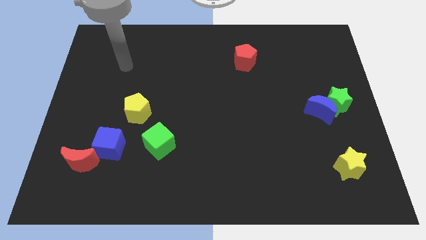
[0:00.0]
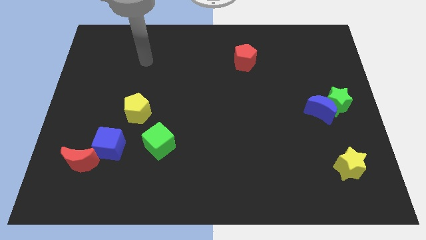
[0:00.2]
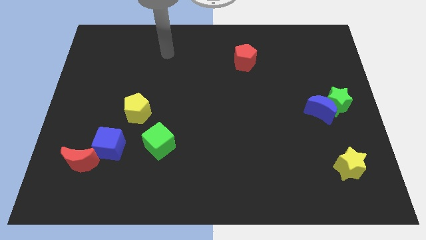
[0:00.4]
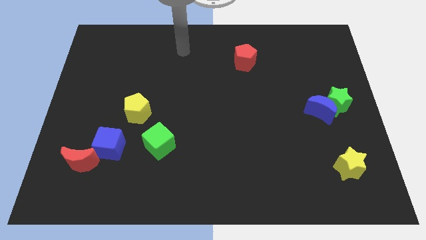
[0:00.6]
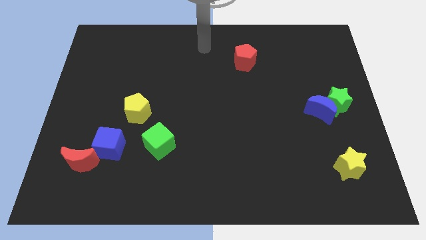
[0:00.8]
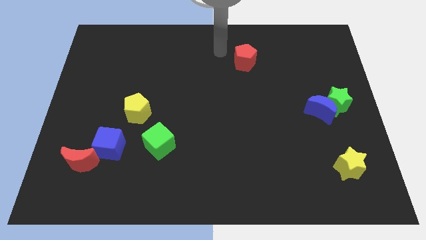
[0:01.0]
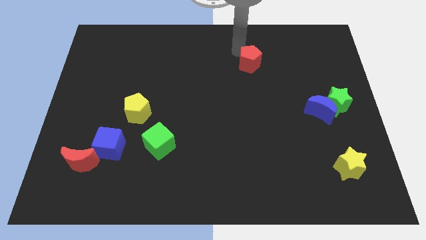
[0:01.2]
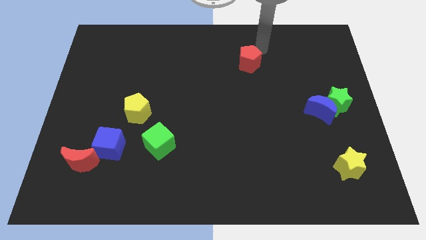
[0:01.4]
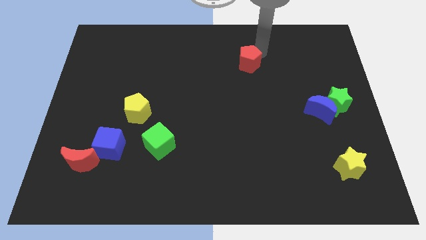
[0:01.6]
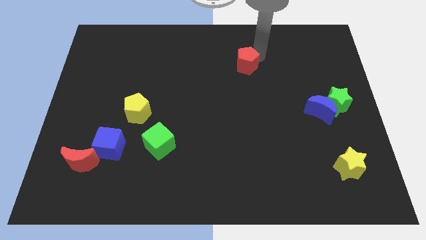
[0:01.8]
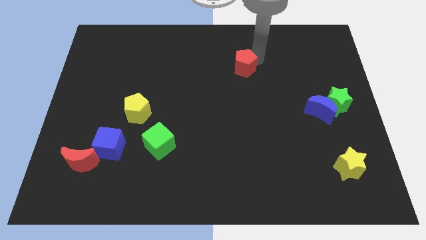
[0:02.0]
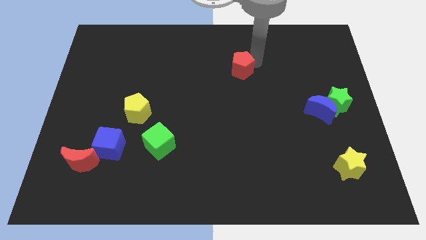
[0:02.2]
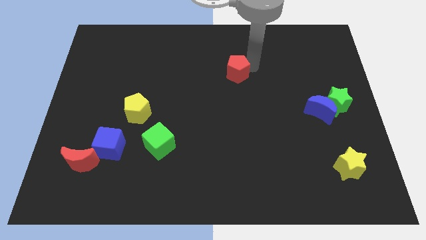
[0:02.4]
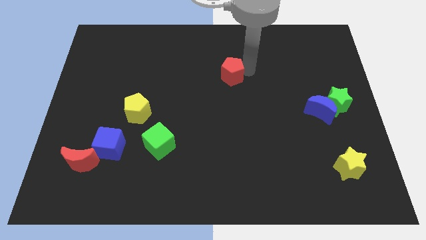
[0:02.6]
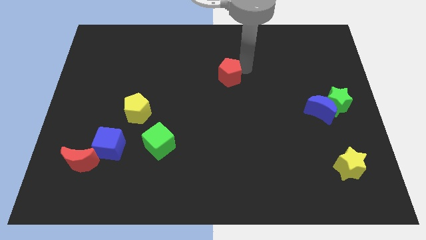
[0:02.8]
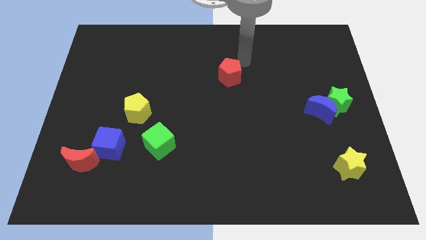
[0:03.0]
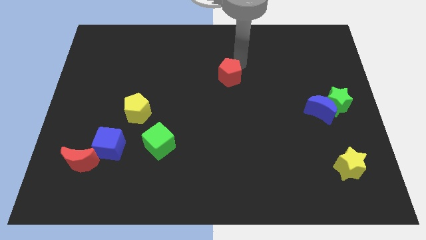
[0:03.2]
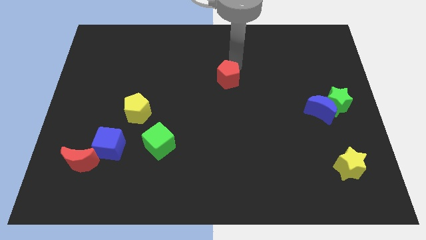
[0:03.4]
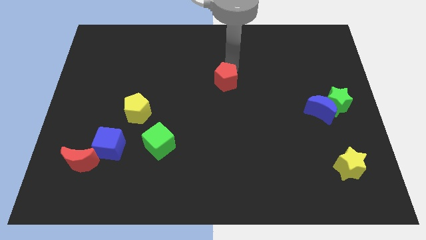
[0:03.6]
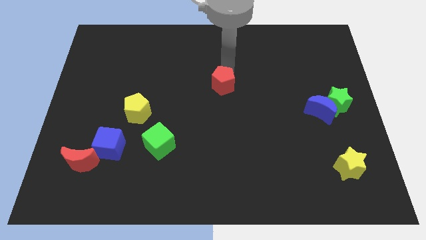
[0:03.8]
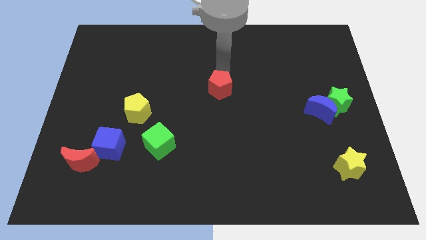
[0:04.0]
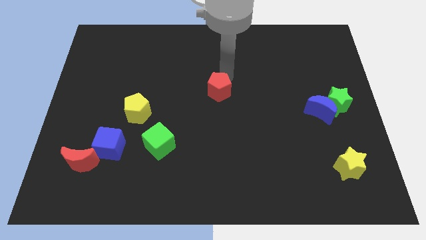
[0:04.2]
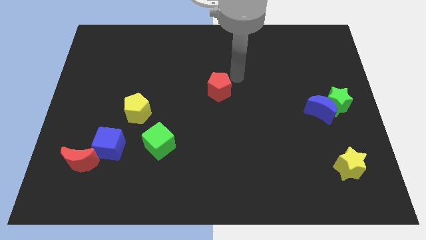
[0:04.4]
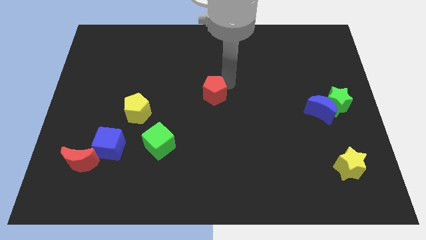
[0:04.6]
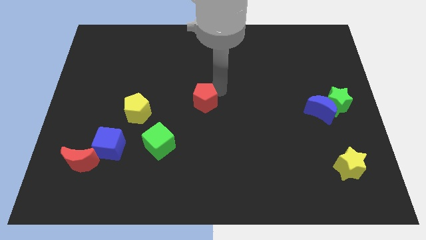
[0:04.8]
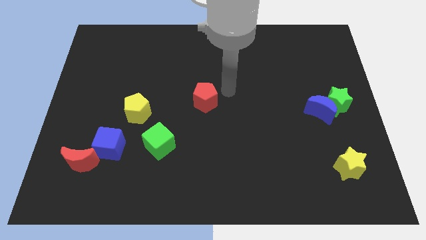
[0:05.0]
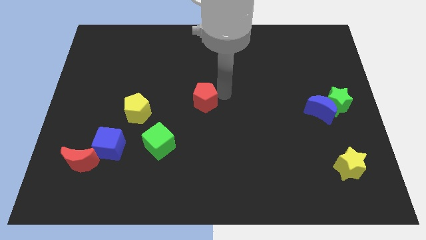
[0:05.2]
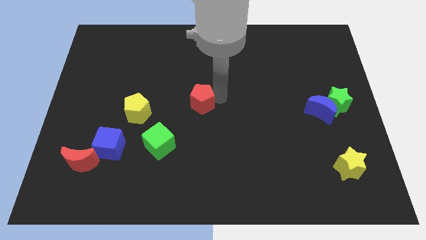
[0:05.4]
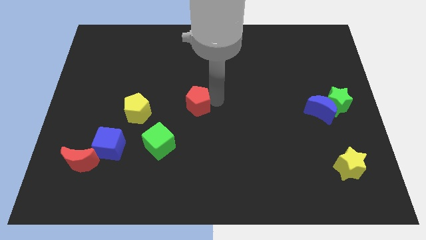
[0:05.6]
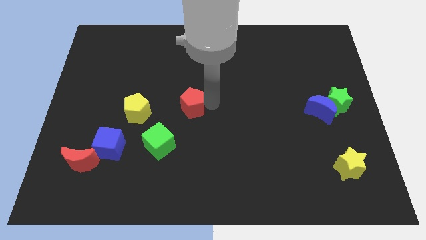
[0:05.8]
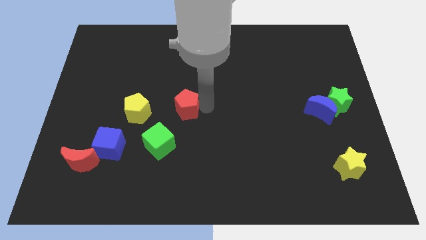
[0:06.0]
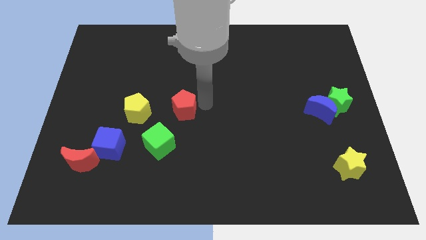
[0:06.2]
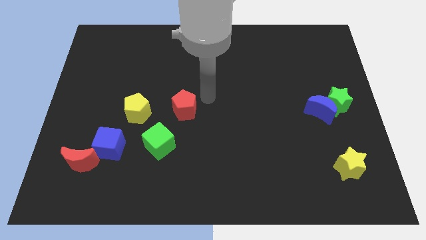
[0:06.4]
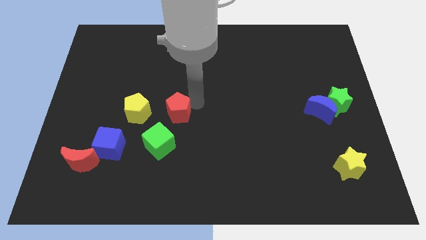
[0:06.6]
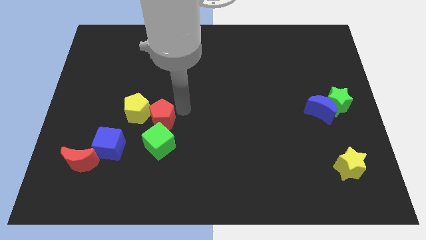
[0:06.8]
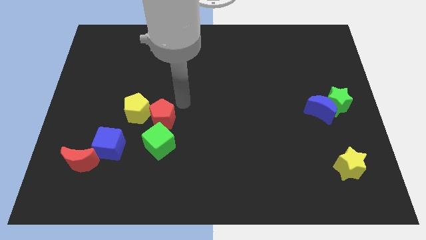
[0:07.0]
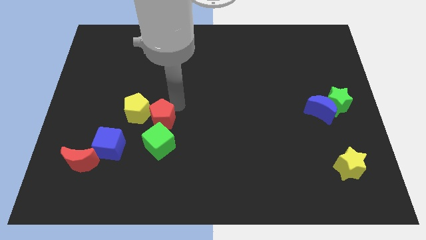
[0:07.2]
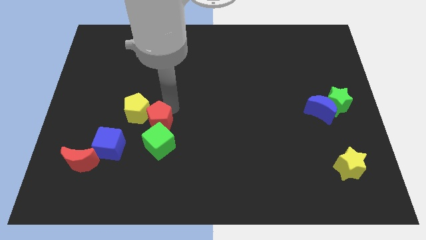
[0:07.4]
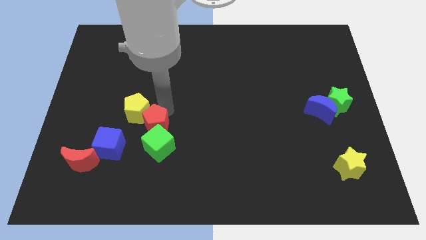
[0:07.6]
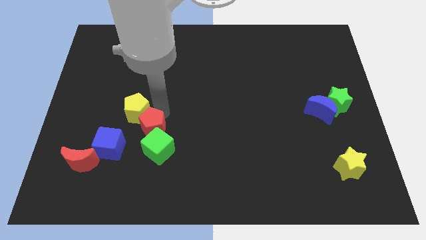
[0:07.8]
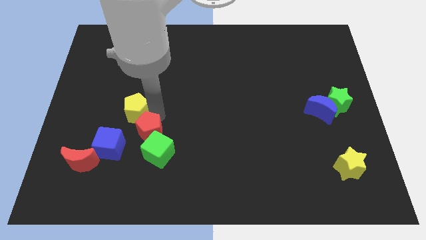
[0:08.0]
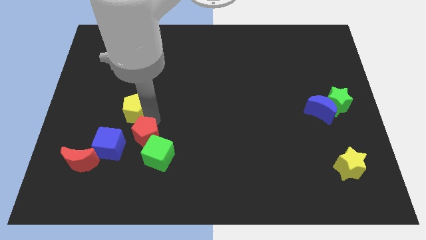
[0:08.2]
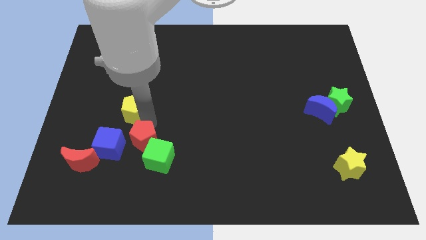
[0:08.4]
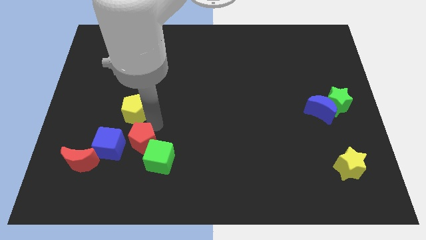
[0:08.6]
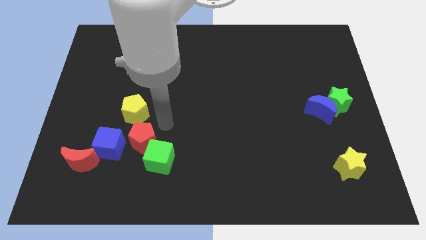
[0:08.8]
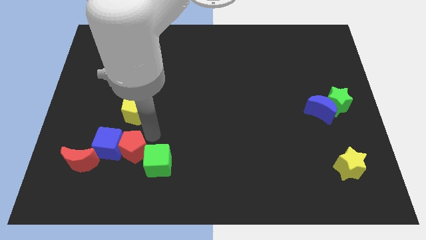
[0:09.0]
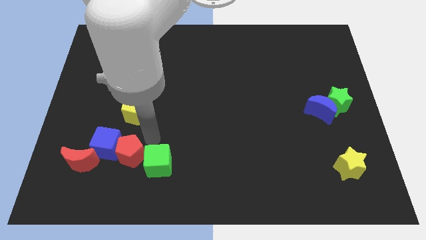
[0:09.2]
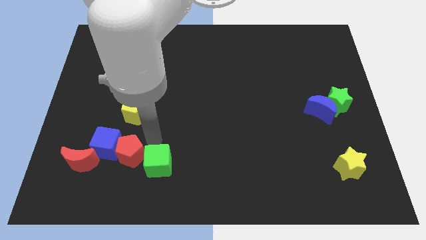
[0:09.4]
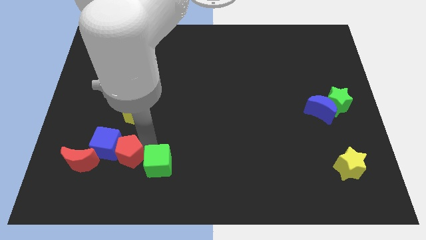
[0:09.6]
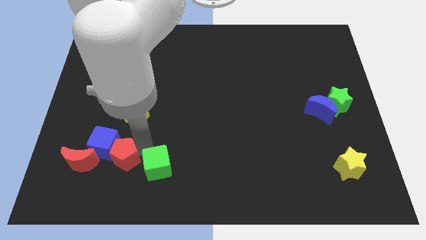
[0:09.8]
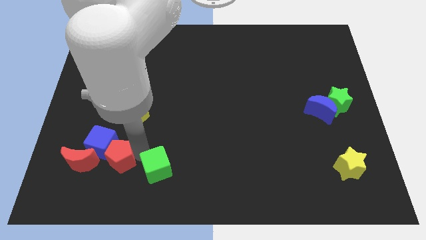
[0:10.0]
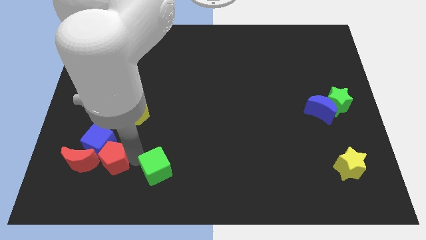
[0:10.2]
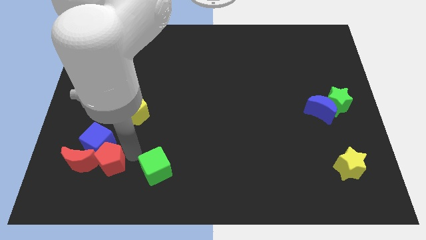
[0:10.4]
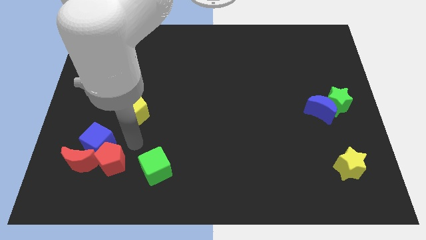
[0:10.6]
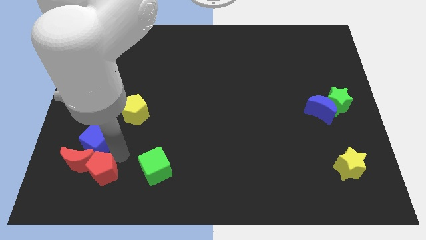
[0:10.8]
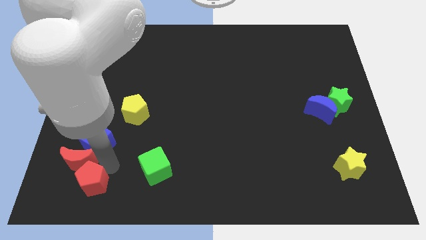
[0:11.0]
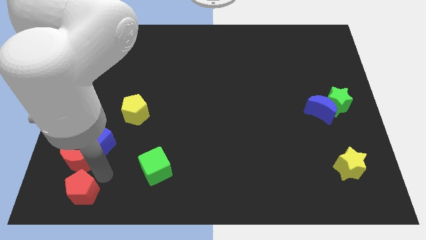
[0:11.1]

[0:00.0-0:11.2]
push the red pentagon to the lower left corner

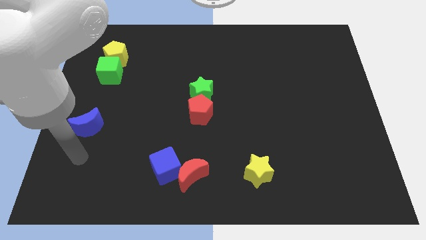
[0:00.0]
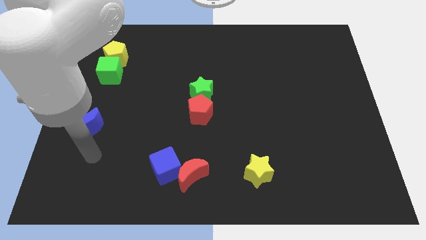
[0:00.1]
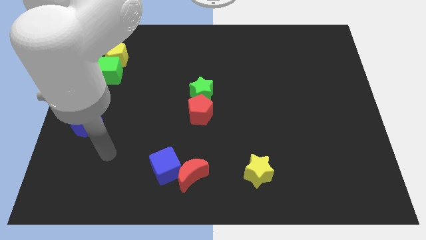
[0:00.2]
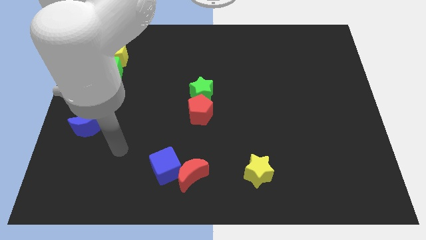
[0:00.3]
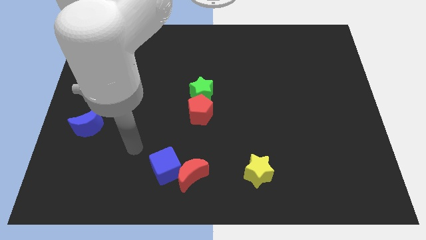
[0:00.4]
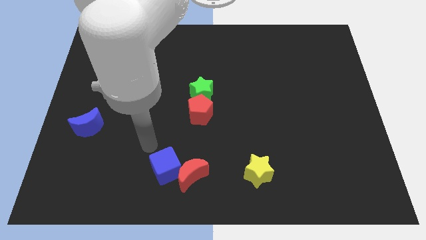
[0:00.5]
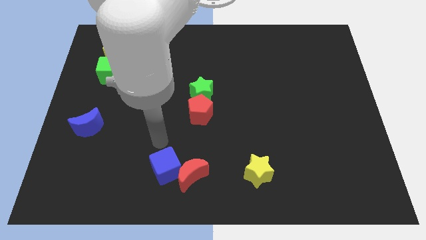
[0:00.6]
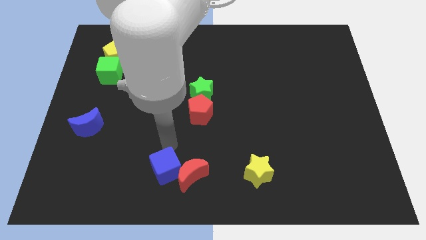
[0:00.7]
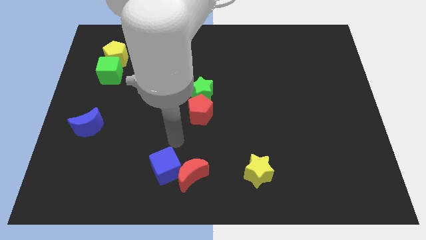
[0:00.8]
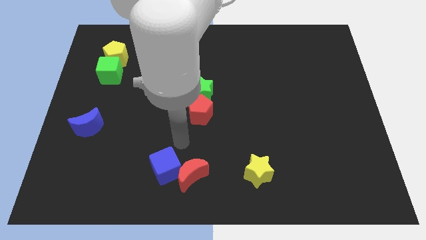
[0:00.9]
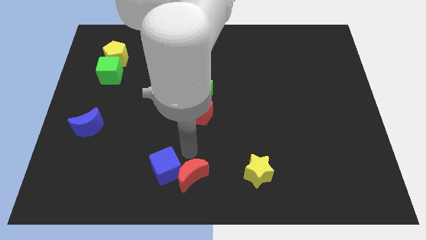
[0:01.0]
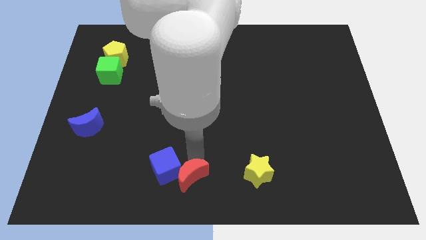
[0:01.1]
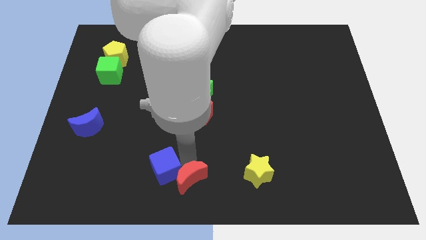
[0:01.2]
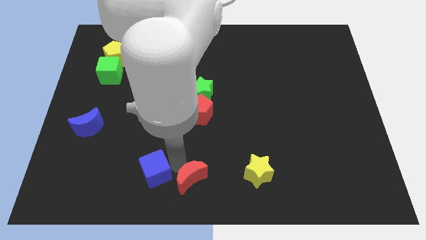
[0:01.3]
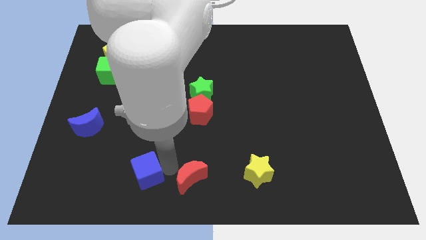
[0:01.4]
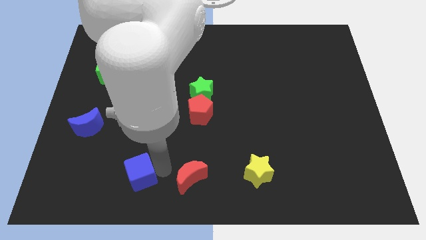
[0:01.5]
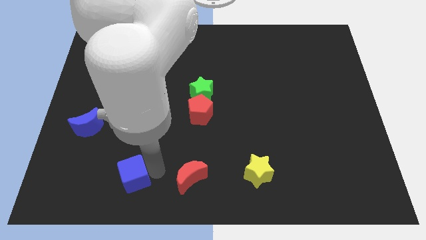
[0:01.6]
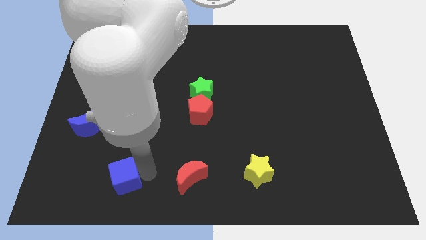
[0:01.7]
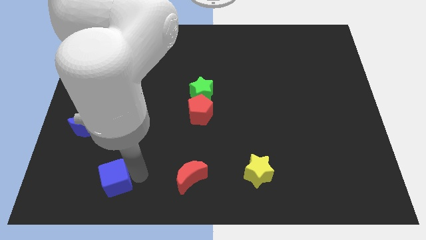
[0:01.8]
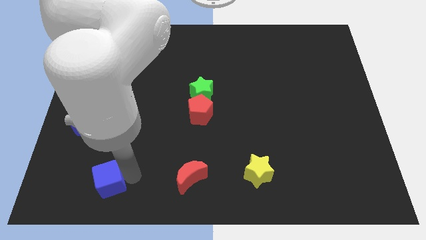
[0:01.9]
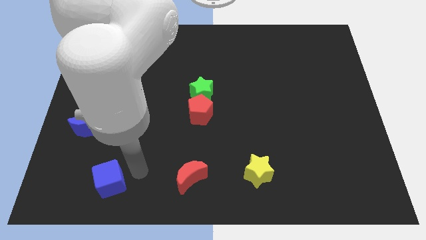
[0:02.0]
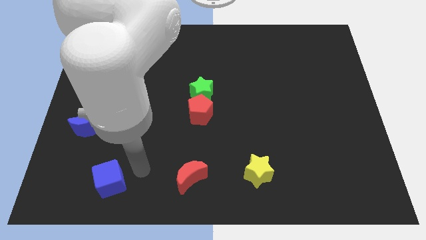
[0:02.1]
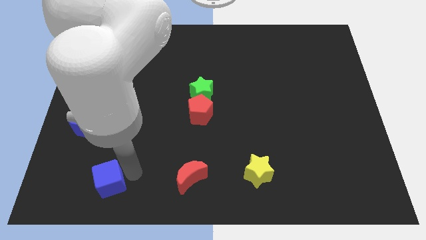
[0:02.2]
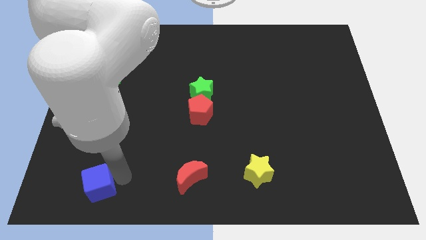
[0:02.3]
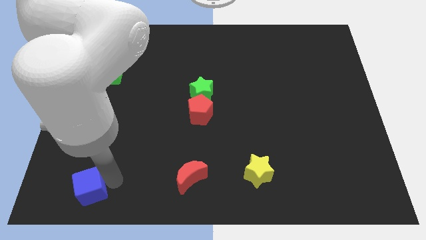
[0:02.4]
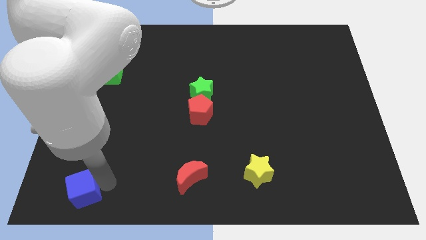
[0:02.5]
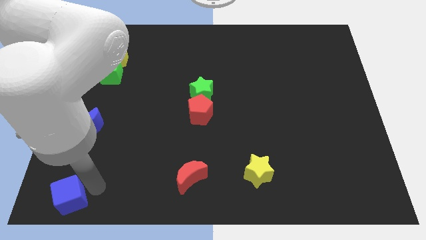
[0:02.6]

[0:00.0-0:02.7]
slide the blue cube to the bottom left
